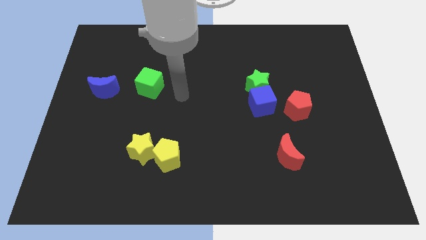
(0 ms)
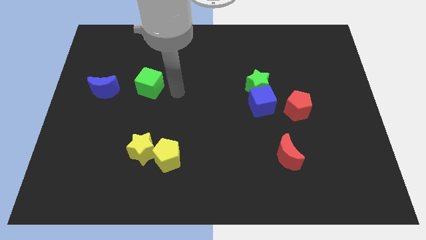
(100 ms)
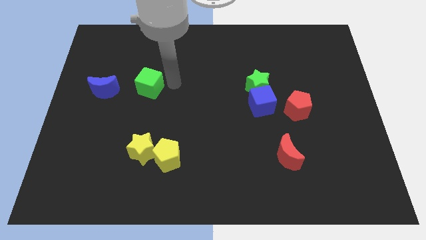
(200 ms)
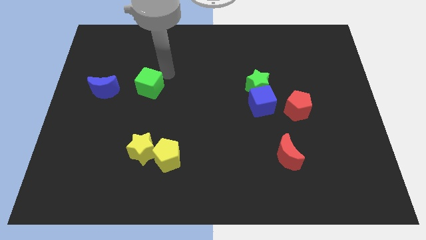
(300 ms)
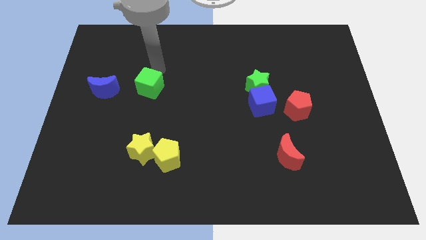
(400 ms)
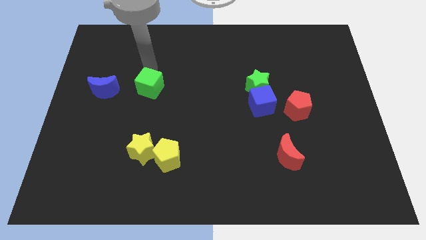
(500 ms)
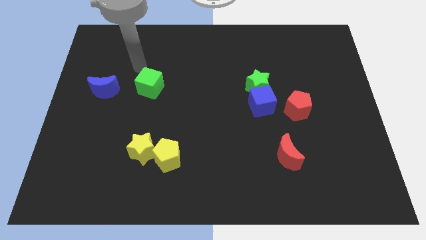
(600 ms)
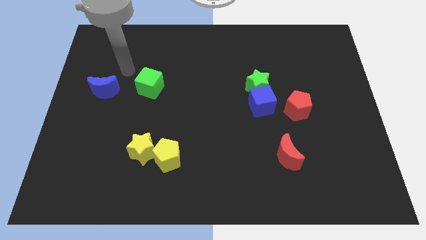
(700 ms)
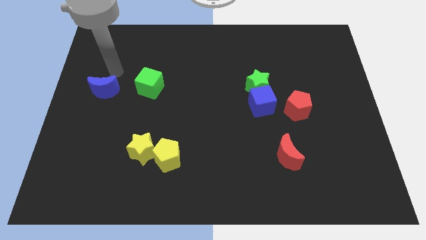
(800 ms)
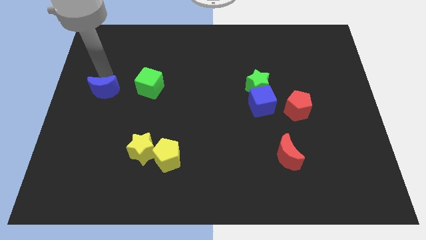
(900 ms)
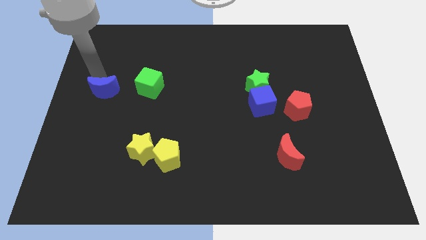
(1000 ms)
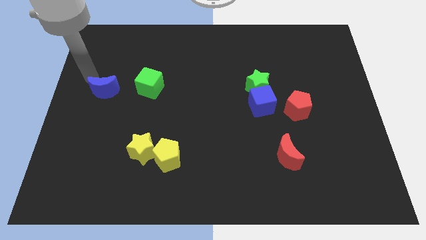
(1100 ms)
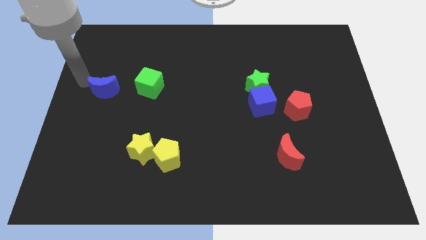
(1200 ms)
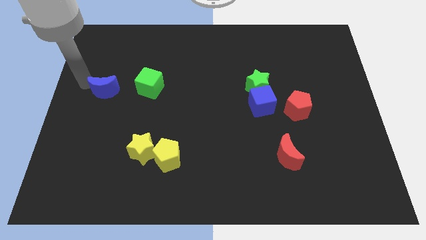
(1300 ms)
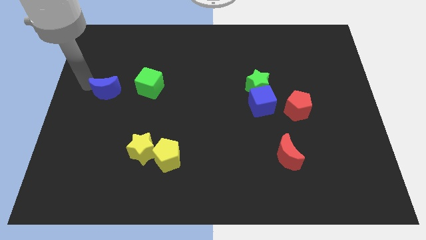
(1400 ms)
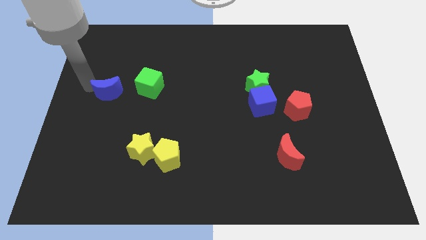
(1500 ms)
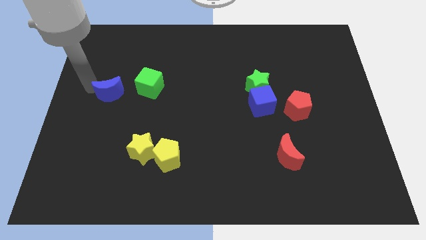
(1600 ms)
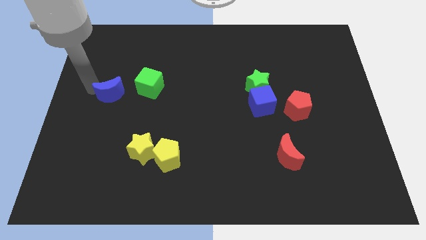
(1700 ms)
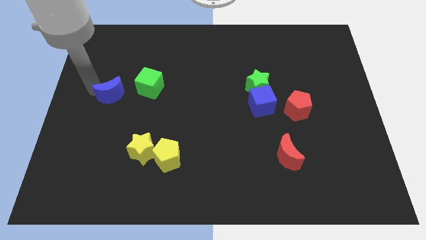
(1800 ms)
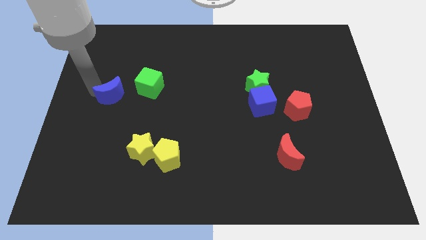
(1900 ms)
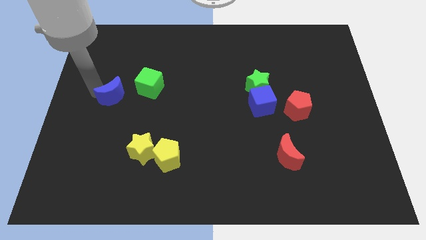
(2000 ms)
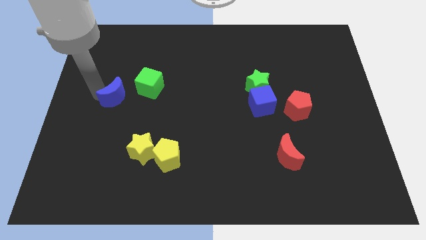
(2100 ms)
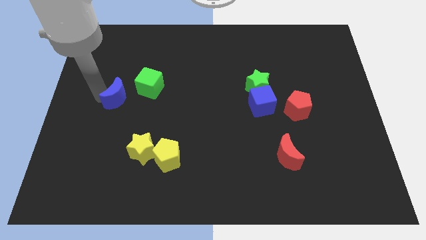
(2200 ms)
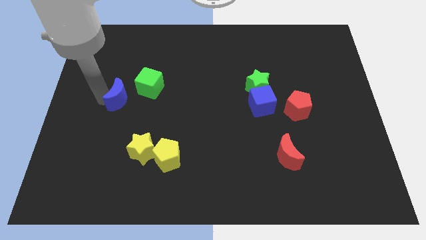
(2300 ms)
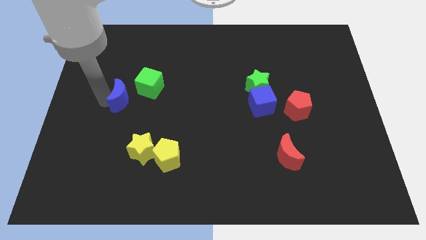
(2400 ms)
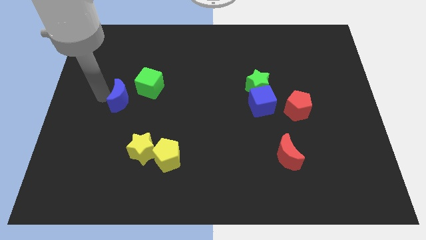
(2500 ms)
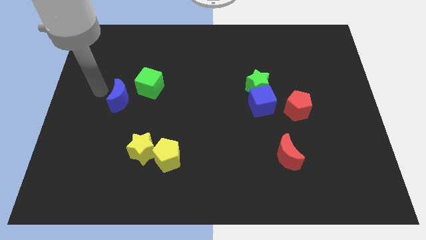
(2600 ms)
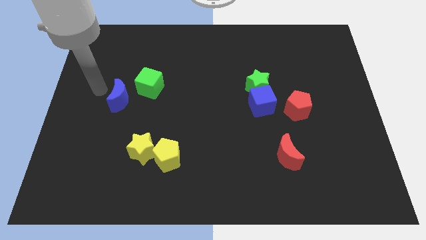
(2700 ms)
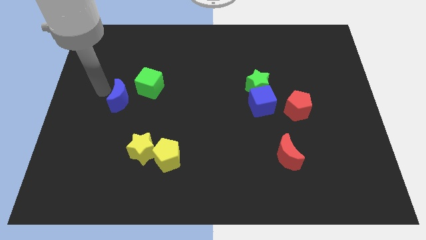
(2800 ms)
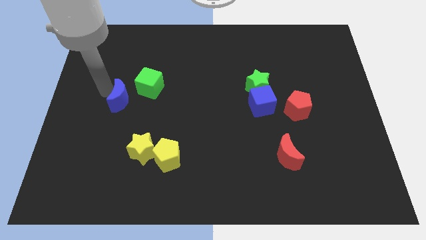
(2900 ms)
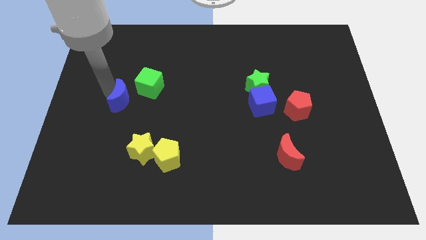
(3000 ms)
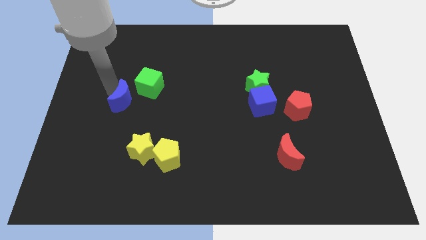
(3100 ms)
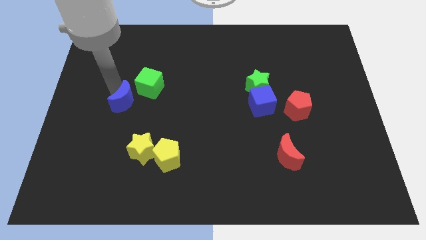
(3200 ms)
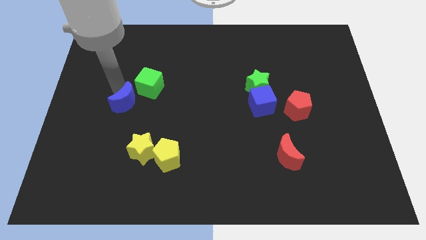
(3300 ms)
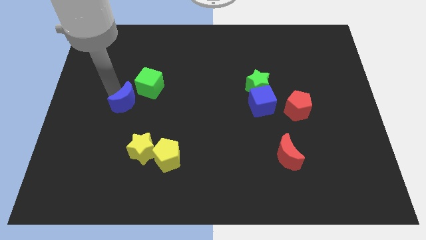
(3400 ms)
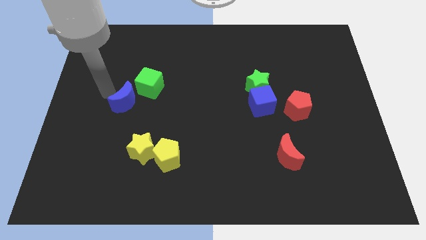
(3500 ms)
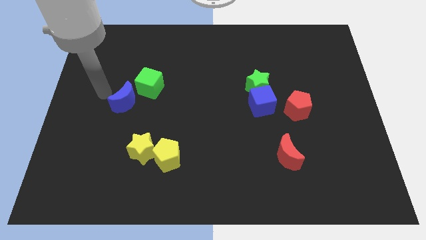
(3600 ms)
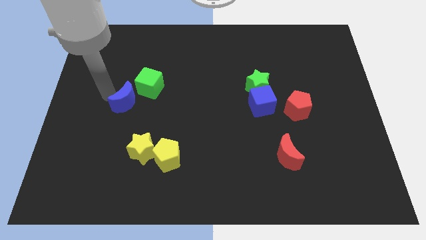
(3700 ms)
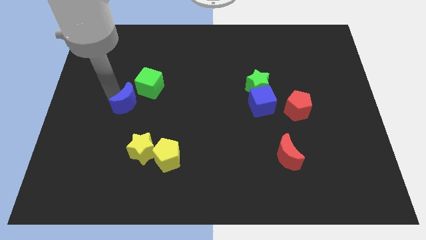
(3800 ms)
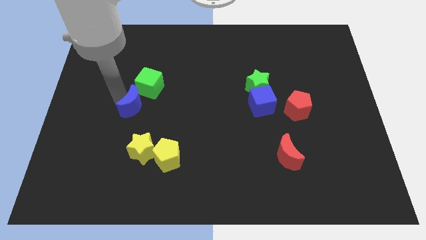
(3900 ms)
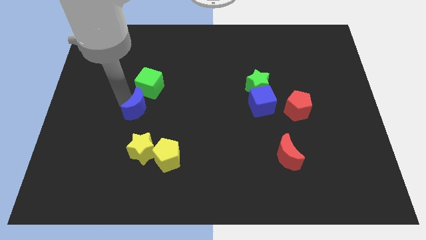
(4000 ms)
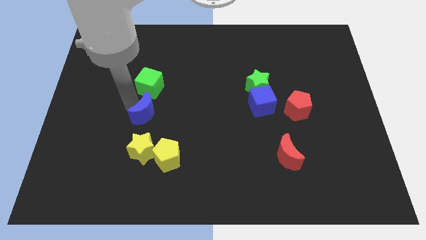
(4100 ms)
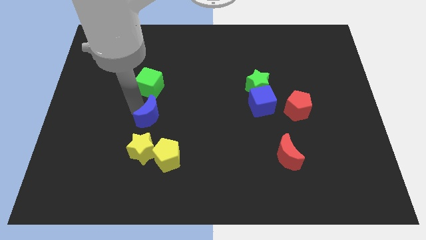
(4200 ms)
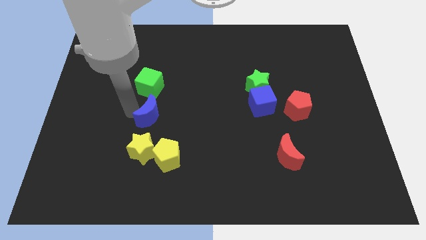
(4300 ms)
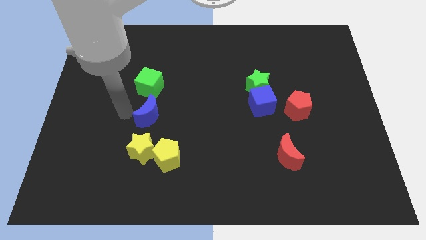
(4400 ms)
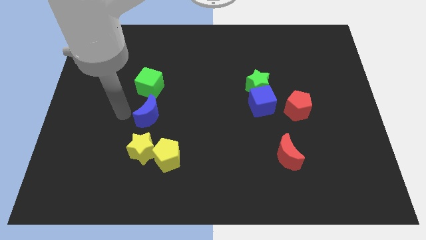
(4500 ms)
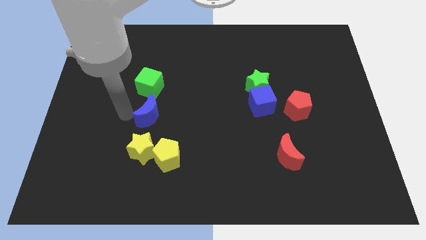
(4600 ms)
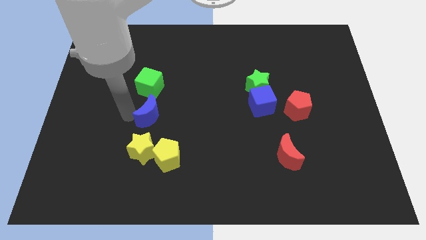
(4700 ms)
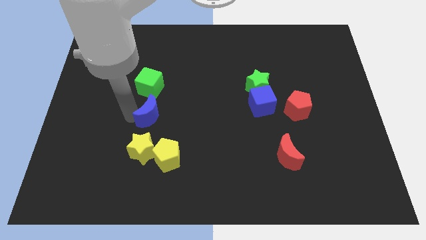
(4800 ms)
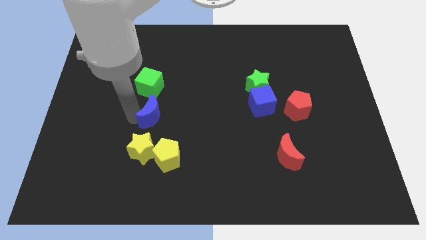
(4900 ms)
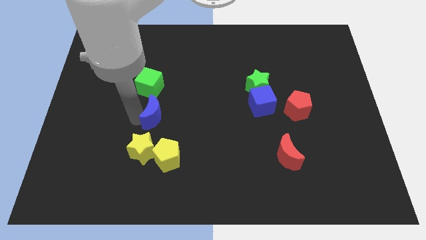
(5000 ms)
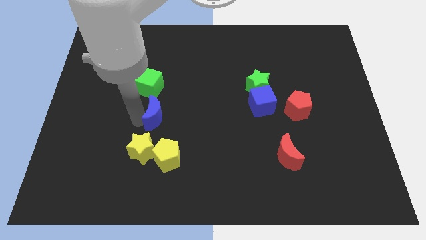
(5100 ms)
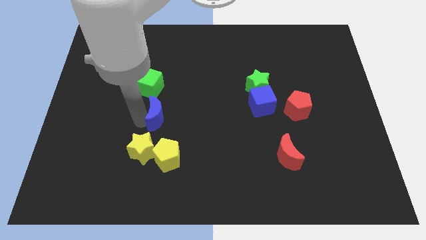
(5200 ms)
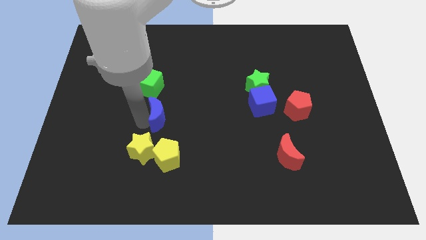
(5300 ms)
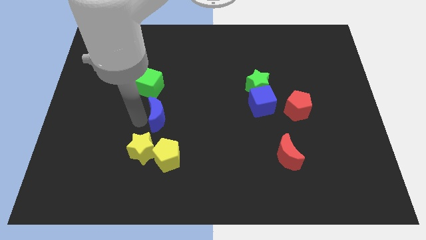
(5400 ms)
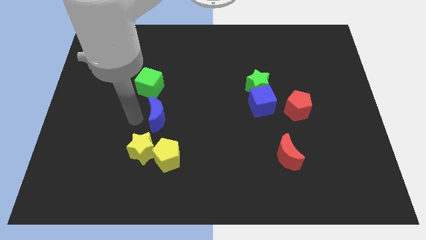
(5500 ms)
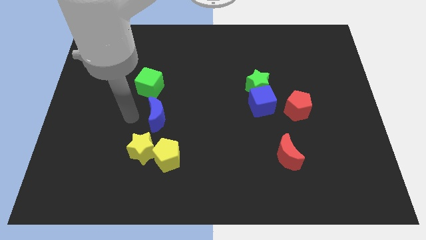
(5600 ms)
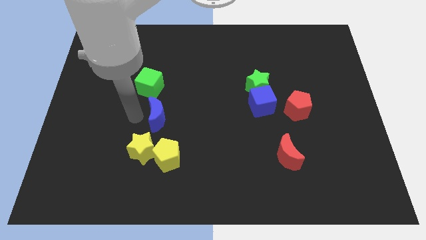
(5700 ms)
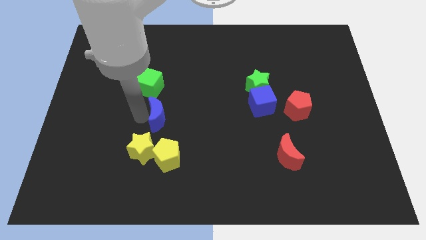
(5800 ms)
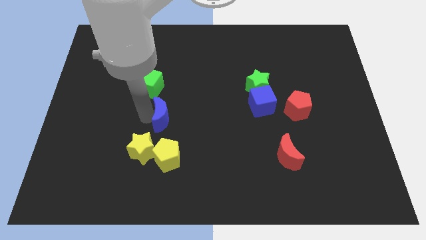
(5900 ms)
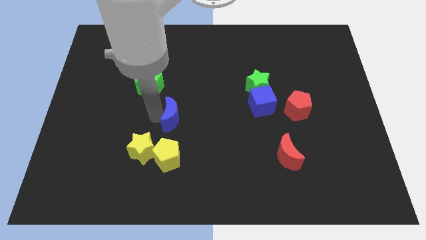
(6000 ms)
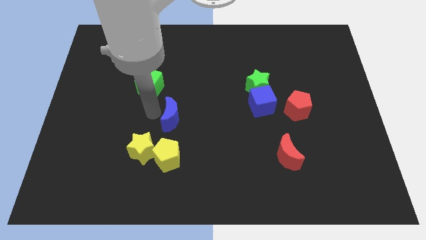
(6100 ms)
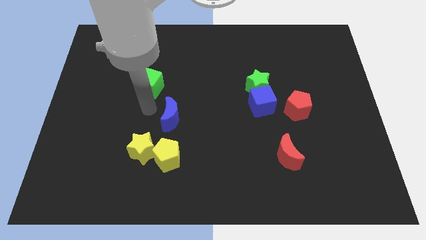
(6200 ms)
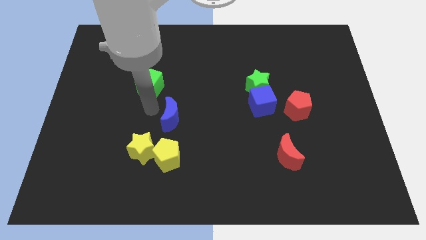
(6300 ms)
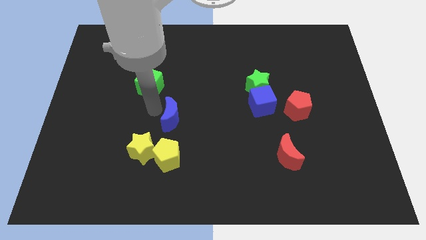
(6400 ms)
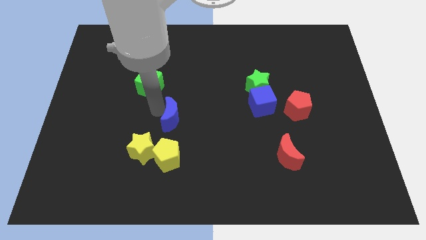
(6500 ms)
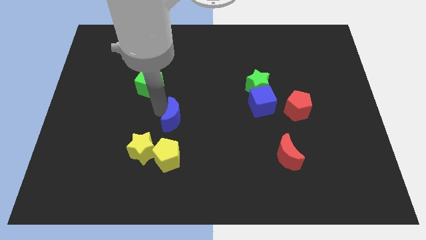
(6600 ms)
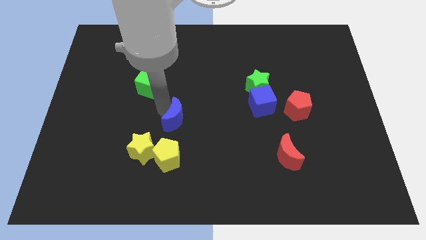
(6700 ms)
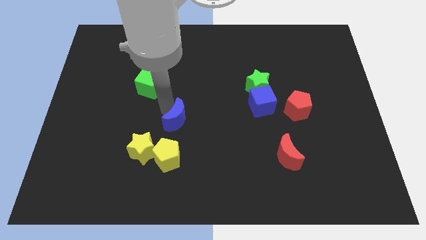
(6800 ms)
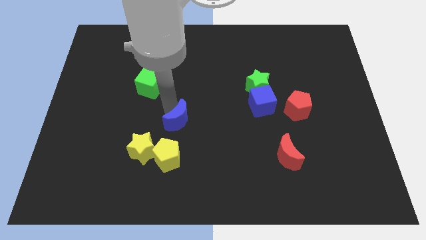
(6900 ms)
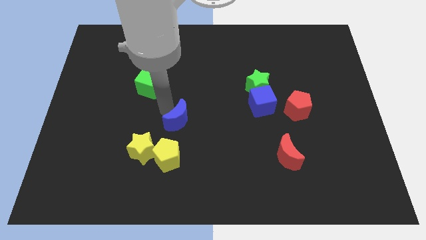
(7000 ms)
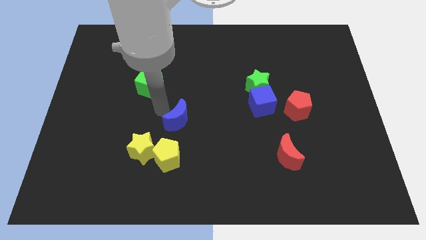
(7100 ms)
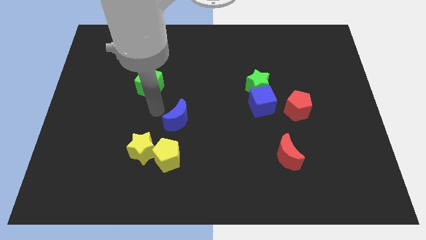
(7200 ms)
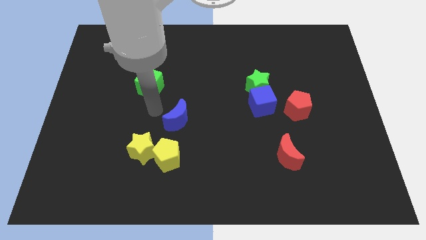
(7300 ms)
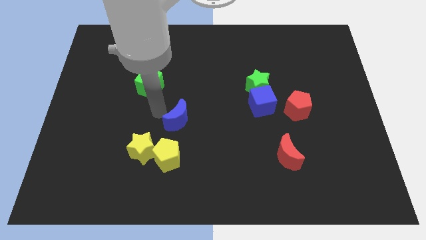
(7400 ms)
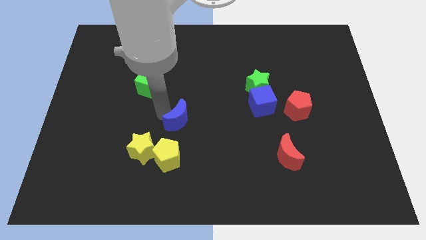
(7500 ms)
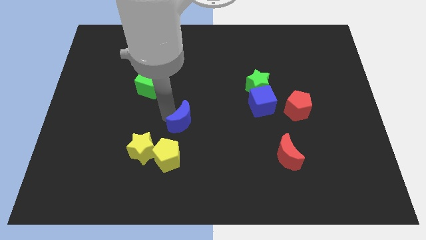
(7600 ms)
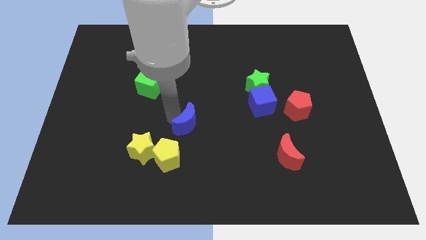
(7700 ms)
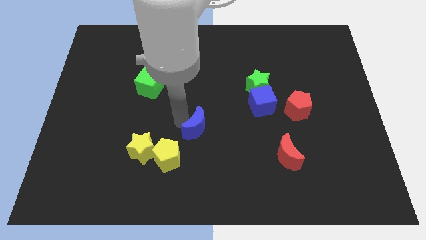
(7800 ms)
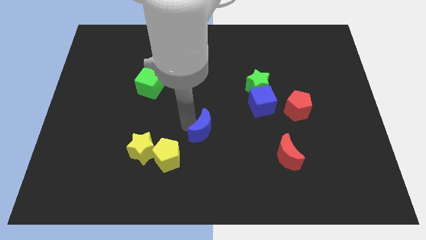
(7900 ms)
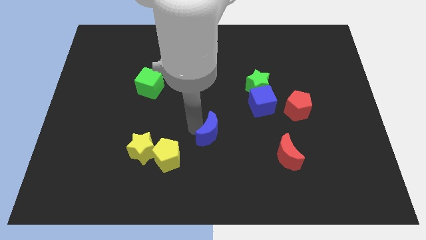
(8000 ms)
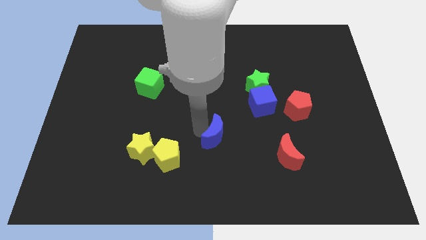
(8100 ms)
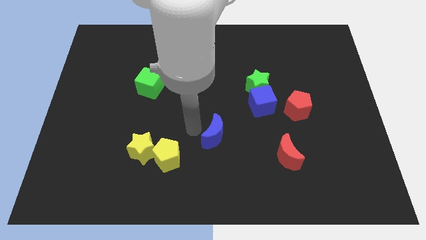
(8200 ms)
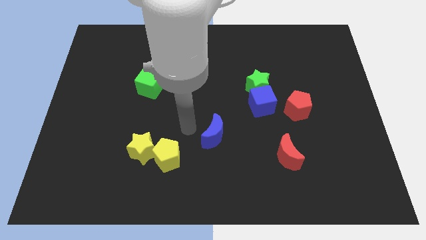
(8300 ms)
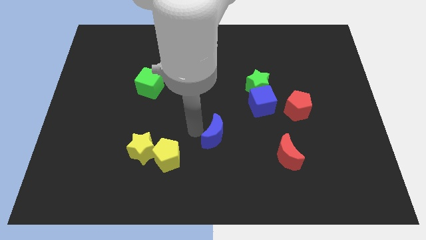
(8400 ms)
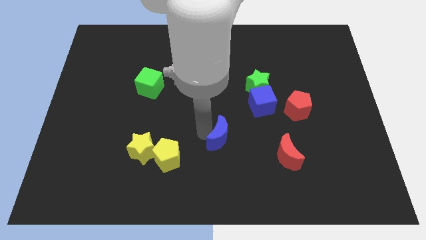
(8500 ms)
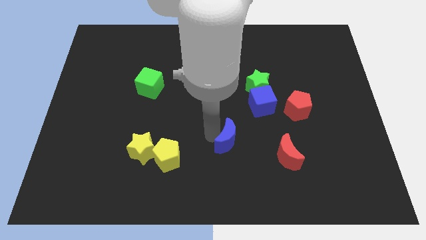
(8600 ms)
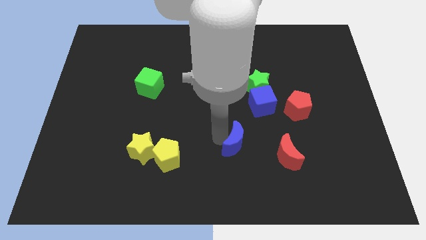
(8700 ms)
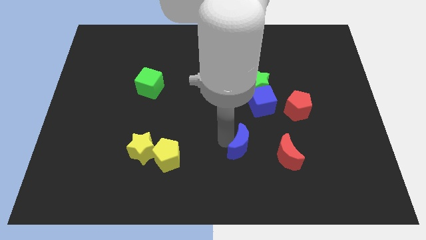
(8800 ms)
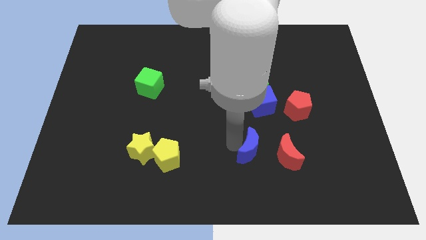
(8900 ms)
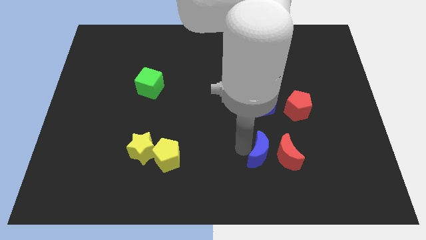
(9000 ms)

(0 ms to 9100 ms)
move the blue moon close to the red moon
